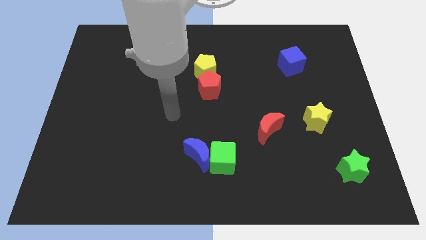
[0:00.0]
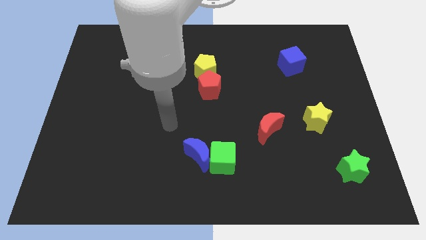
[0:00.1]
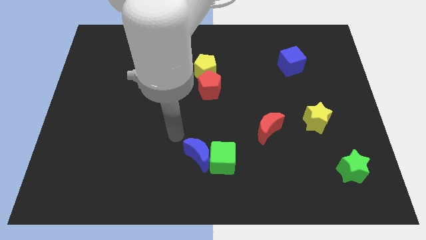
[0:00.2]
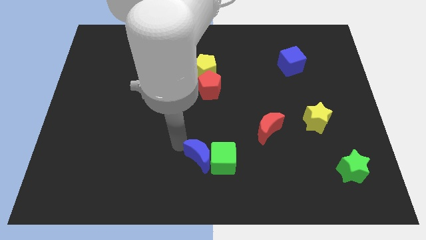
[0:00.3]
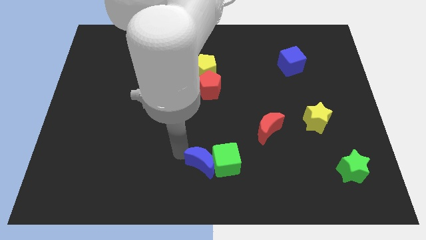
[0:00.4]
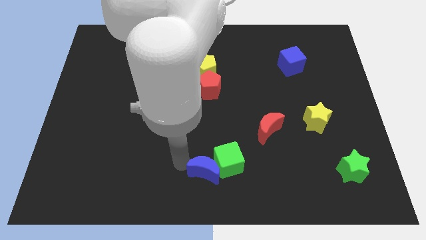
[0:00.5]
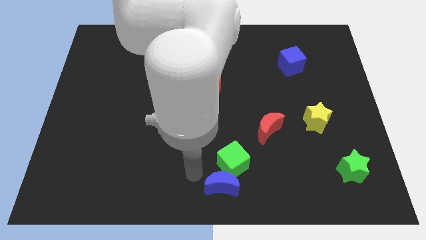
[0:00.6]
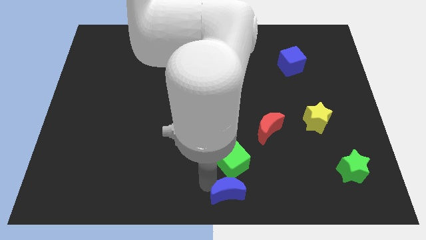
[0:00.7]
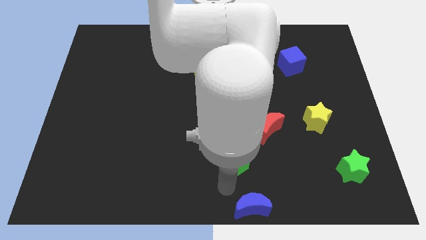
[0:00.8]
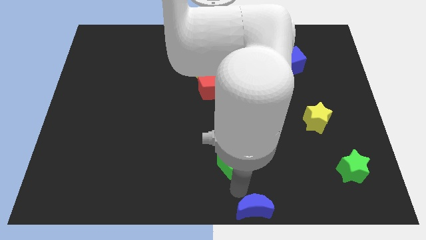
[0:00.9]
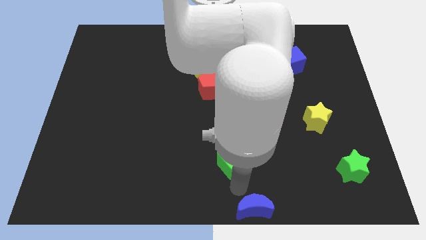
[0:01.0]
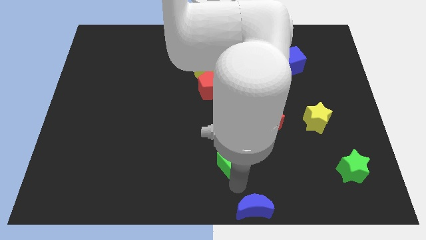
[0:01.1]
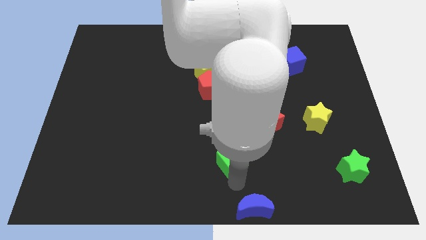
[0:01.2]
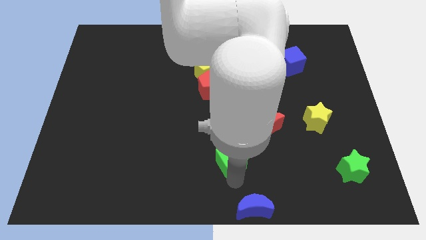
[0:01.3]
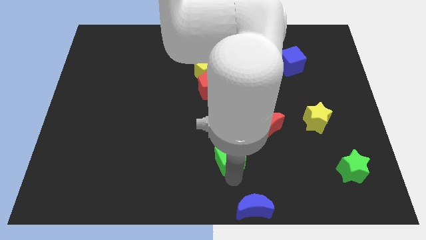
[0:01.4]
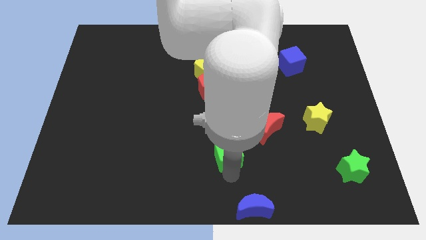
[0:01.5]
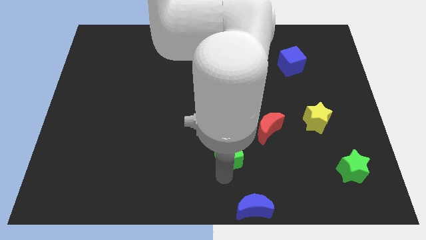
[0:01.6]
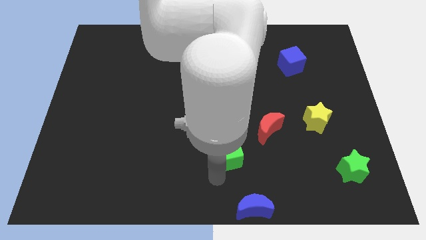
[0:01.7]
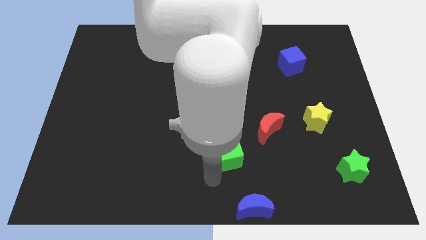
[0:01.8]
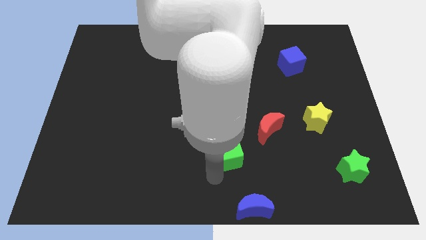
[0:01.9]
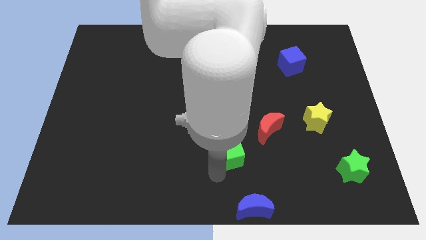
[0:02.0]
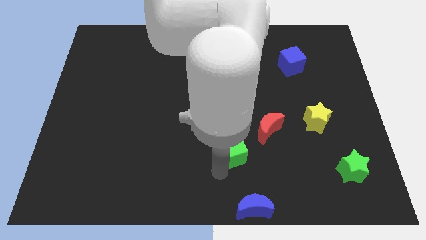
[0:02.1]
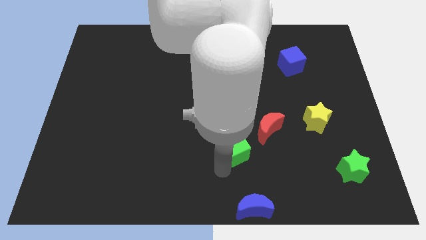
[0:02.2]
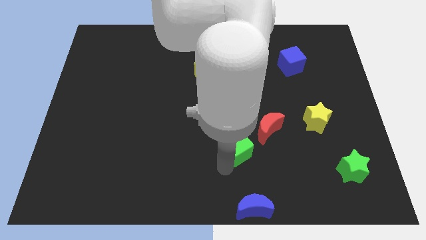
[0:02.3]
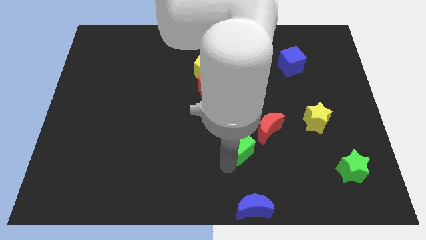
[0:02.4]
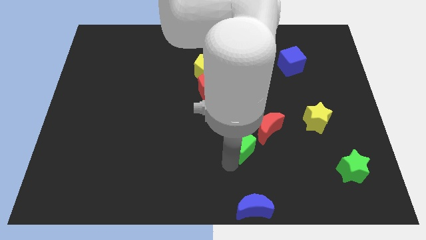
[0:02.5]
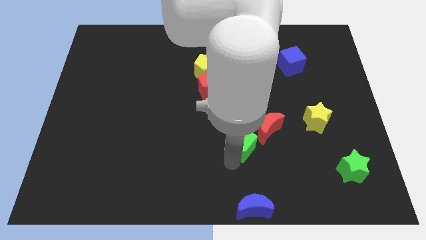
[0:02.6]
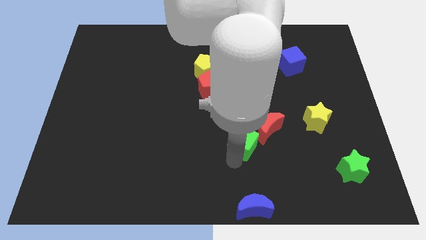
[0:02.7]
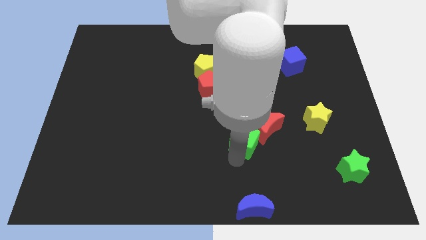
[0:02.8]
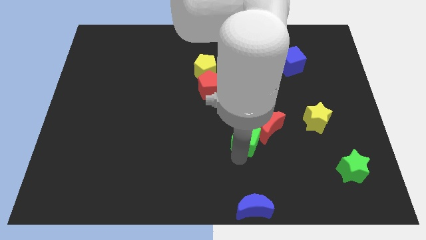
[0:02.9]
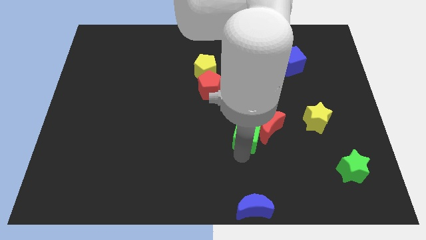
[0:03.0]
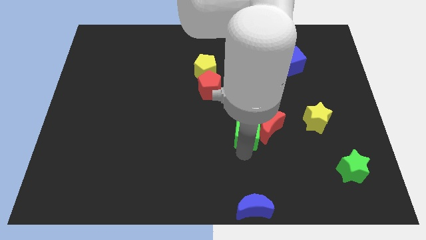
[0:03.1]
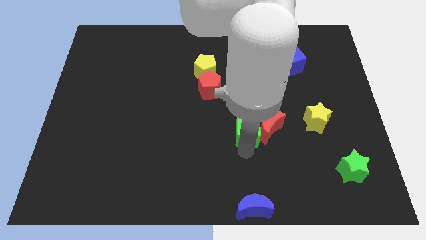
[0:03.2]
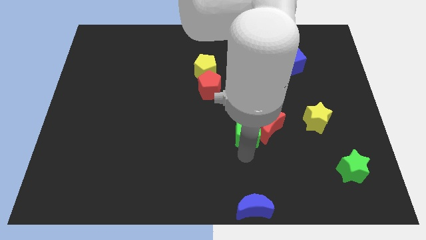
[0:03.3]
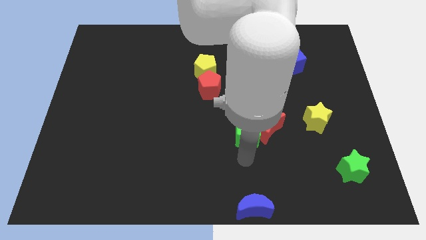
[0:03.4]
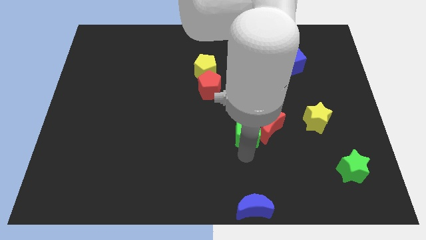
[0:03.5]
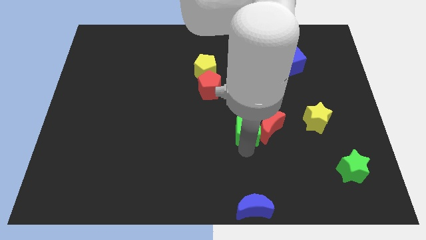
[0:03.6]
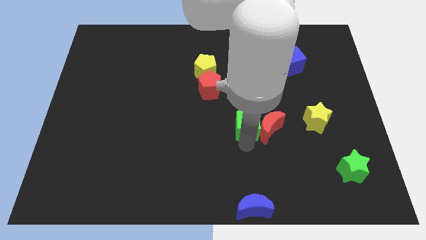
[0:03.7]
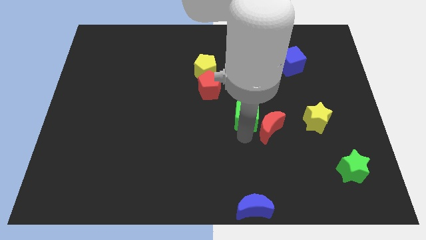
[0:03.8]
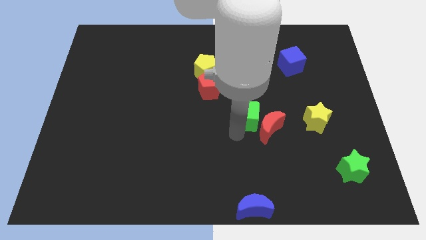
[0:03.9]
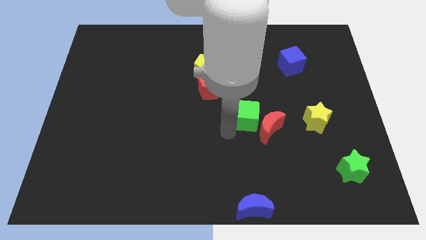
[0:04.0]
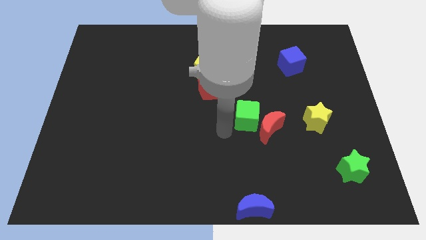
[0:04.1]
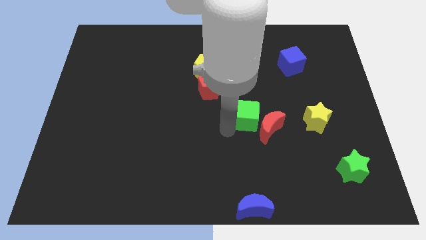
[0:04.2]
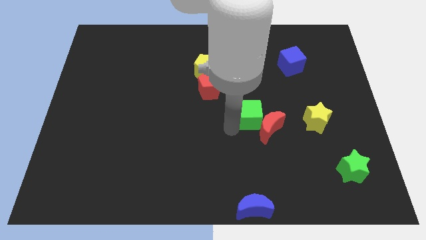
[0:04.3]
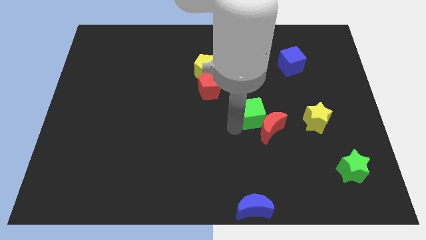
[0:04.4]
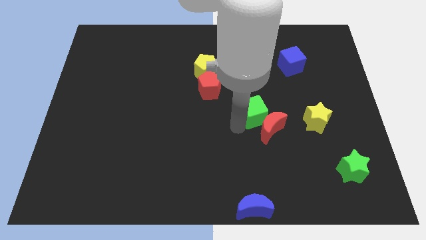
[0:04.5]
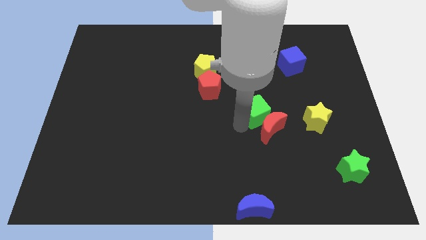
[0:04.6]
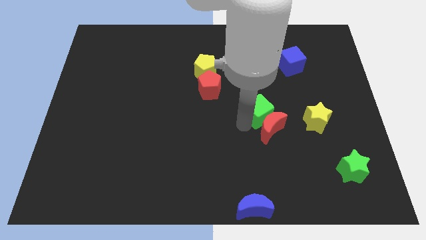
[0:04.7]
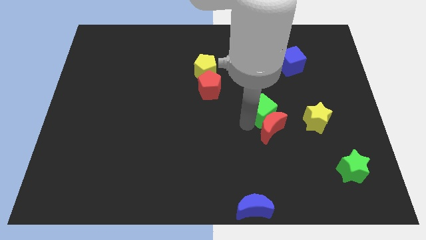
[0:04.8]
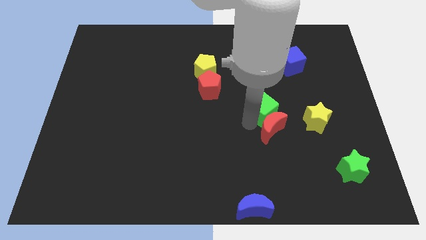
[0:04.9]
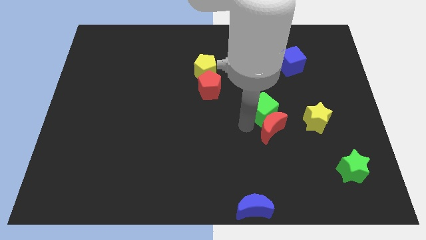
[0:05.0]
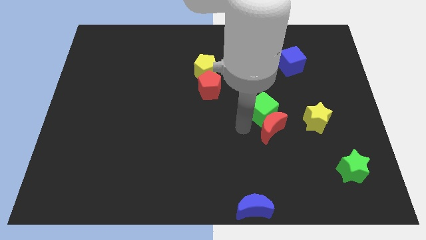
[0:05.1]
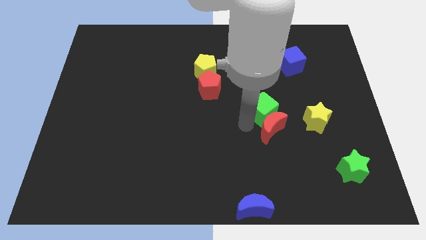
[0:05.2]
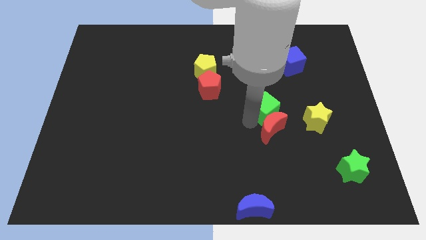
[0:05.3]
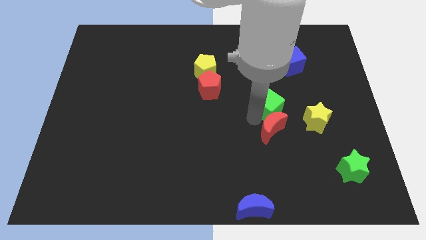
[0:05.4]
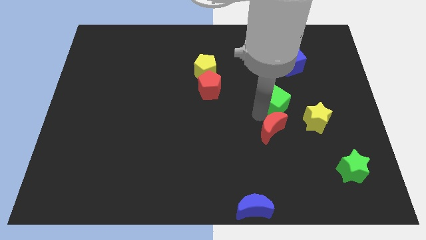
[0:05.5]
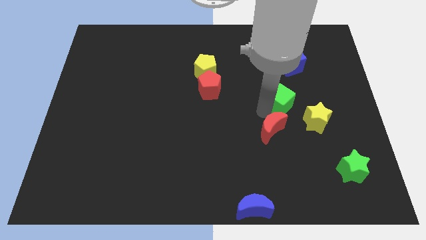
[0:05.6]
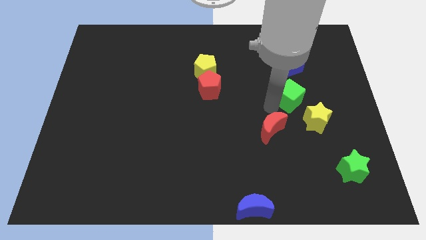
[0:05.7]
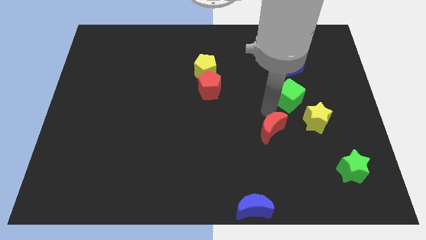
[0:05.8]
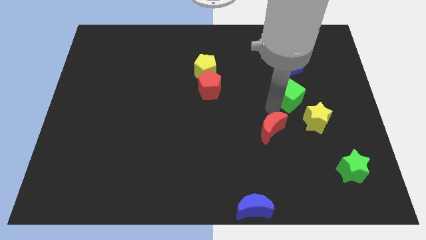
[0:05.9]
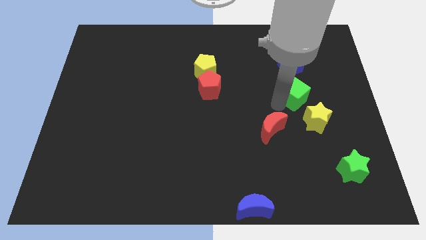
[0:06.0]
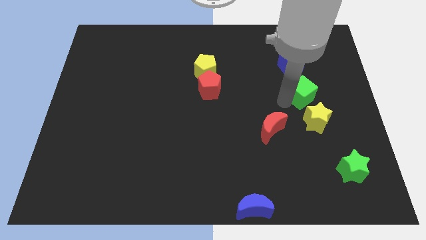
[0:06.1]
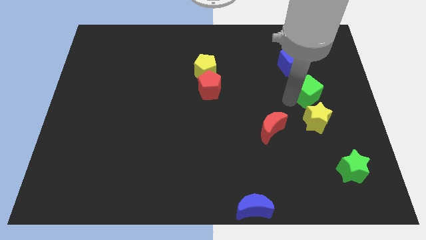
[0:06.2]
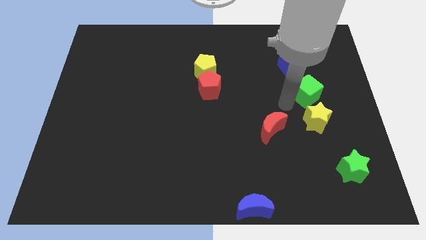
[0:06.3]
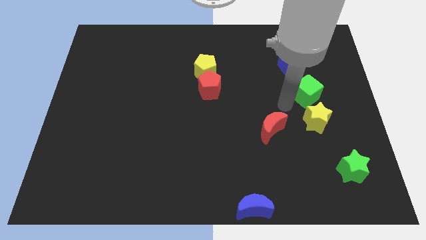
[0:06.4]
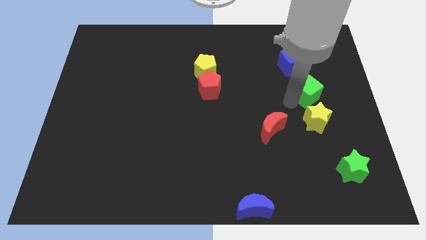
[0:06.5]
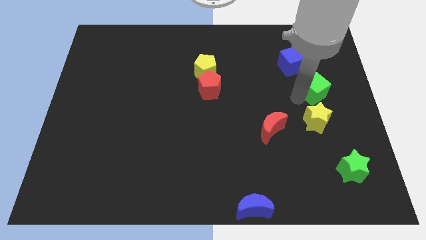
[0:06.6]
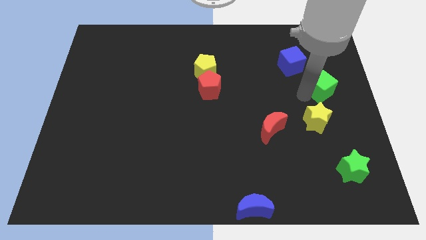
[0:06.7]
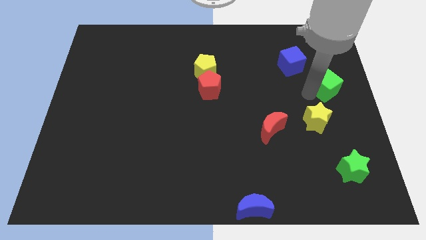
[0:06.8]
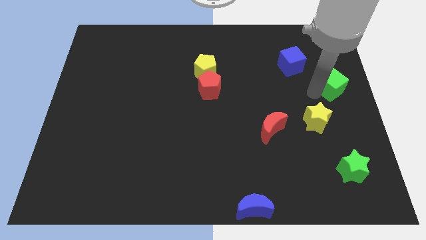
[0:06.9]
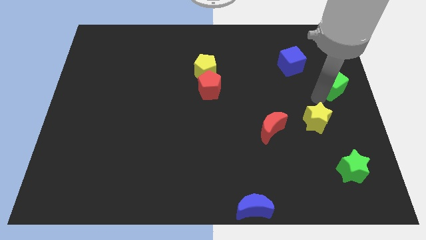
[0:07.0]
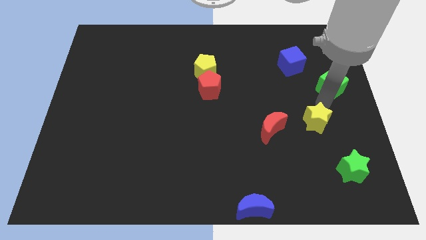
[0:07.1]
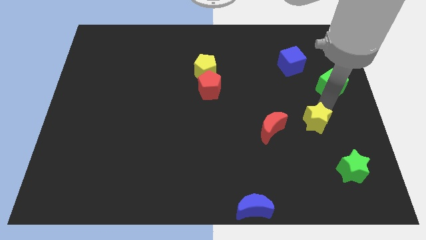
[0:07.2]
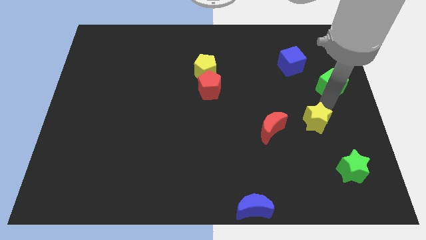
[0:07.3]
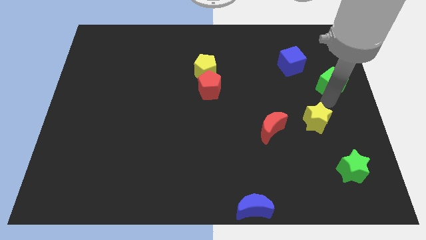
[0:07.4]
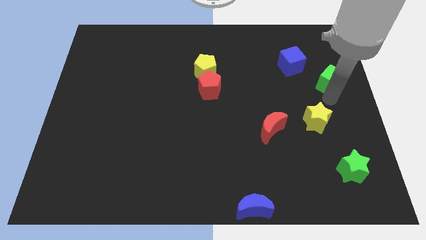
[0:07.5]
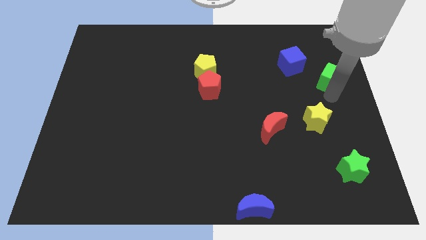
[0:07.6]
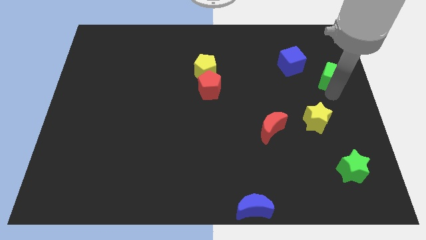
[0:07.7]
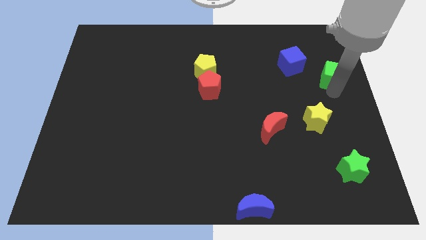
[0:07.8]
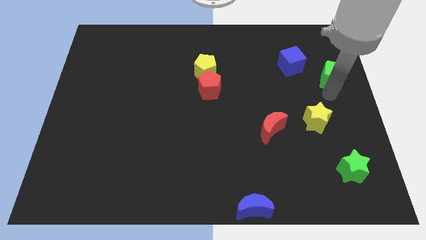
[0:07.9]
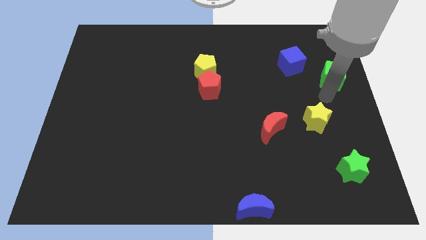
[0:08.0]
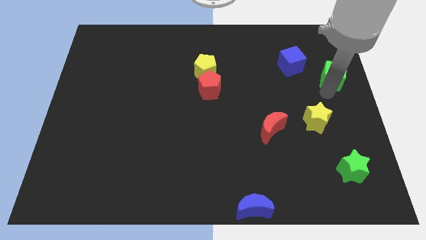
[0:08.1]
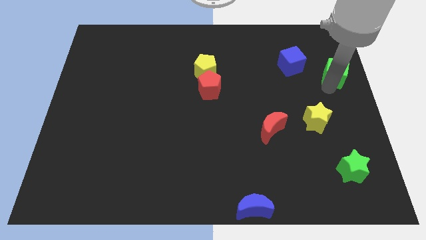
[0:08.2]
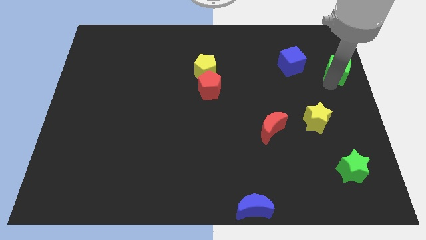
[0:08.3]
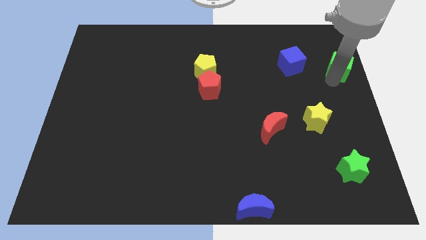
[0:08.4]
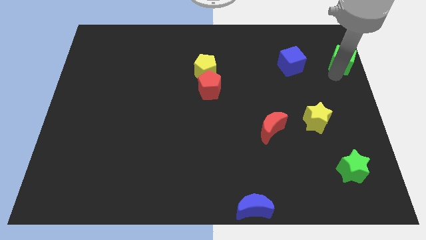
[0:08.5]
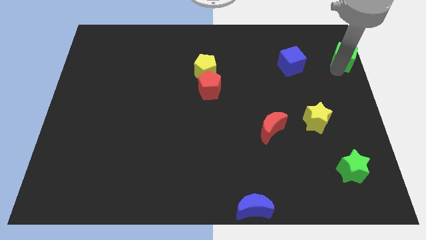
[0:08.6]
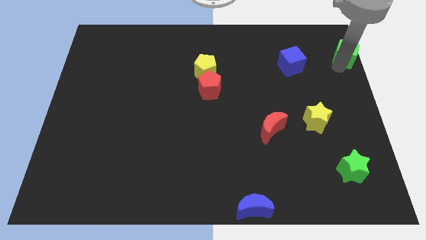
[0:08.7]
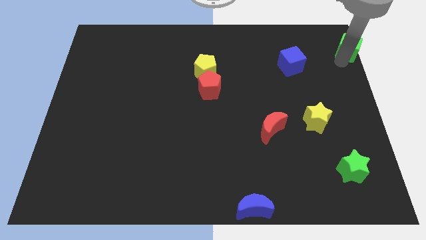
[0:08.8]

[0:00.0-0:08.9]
push the green cube to the top right corner
